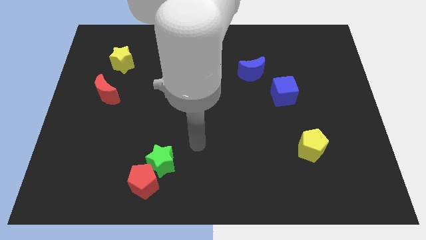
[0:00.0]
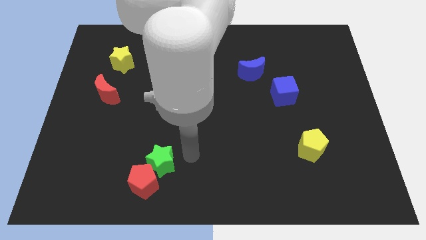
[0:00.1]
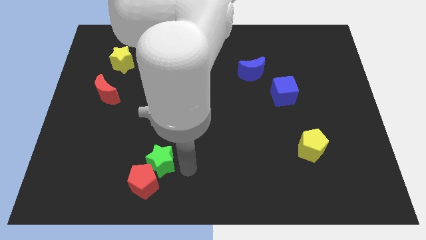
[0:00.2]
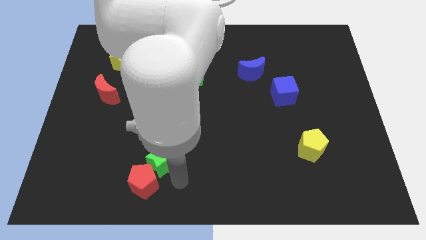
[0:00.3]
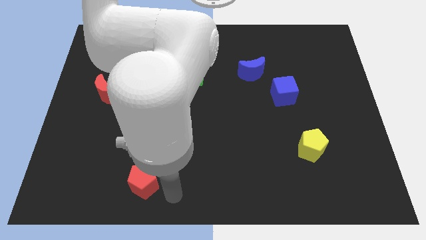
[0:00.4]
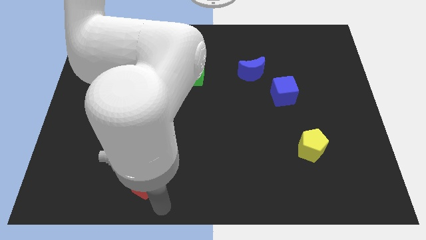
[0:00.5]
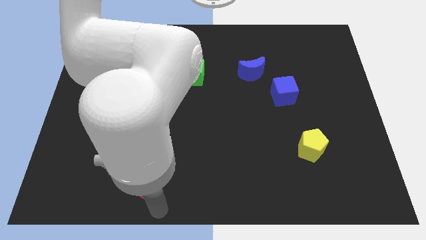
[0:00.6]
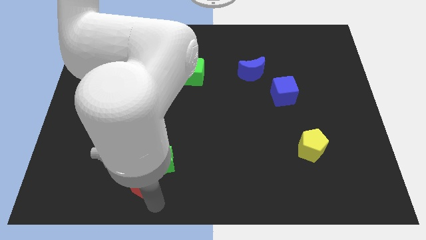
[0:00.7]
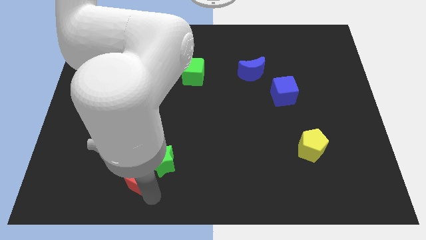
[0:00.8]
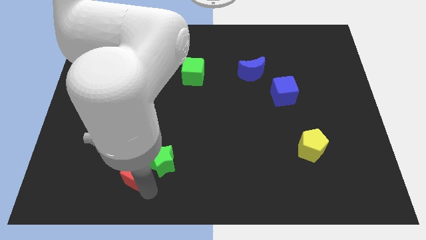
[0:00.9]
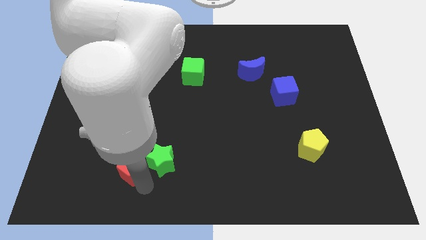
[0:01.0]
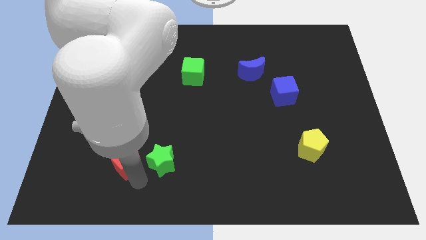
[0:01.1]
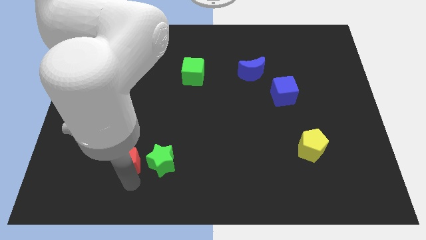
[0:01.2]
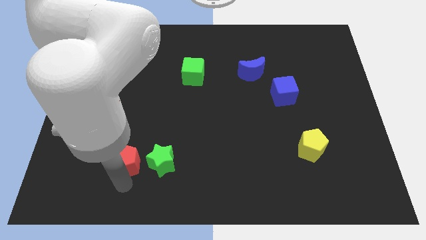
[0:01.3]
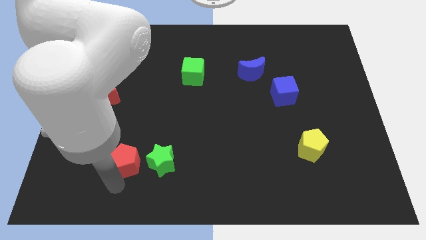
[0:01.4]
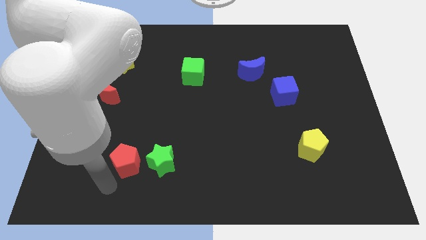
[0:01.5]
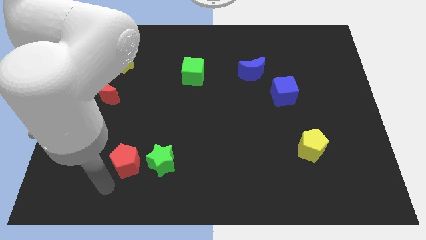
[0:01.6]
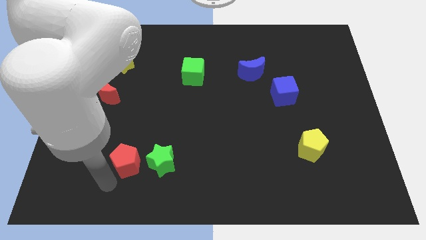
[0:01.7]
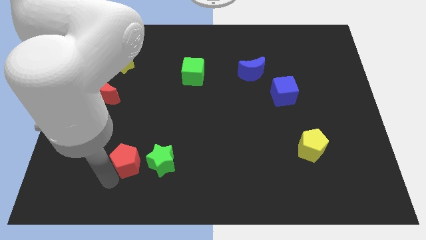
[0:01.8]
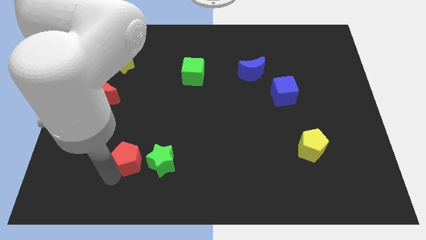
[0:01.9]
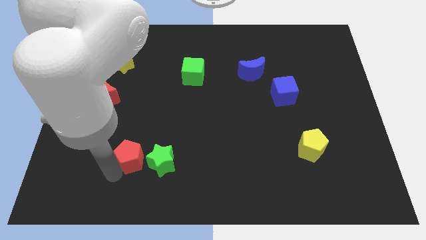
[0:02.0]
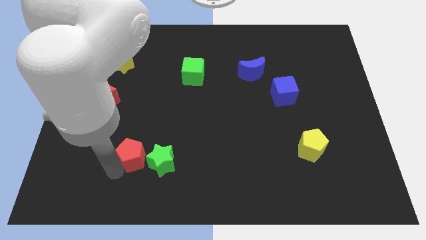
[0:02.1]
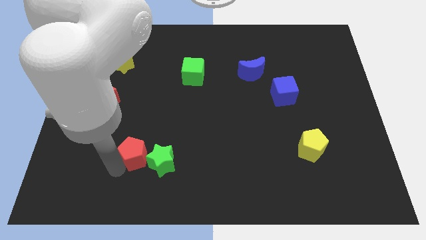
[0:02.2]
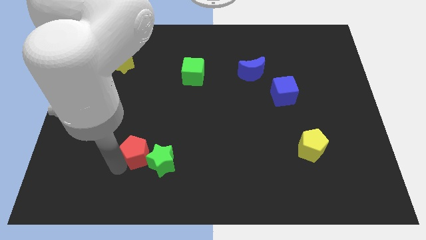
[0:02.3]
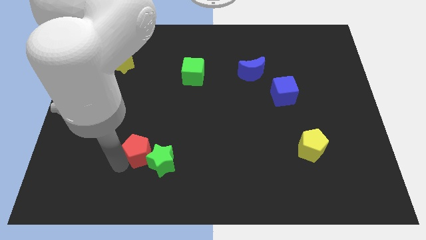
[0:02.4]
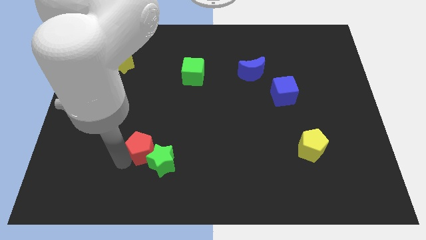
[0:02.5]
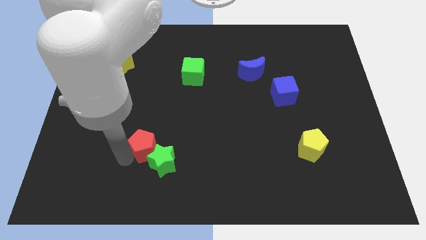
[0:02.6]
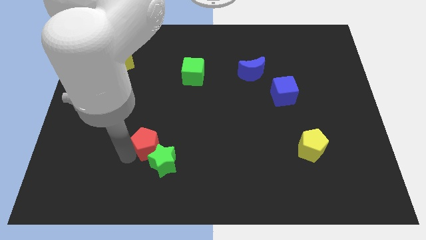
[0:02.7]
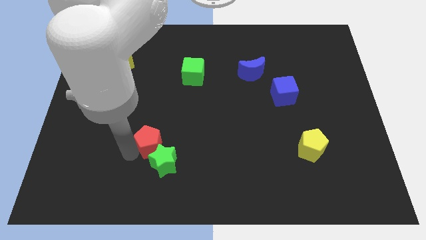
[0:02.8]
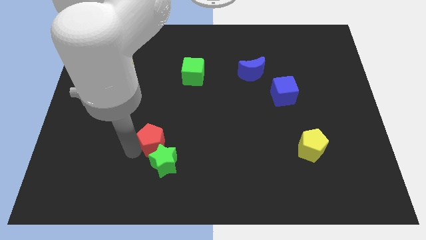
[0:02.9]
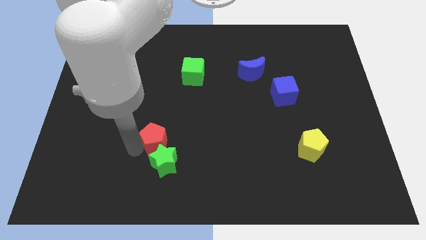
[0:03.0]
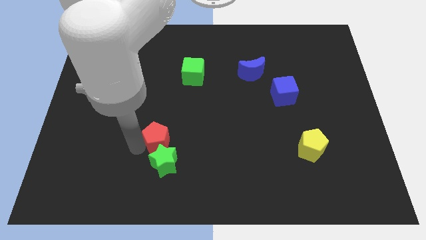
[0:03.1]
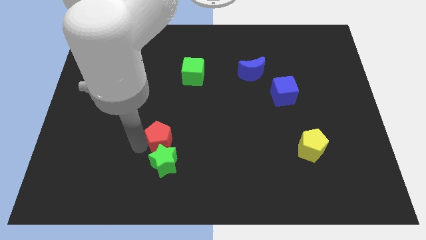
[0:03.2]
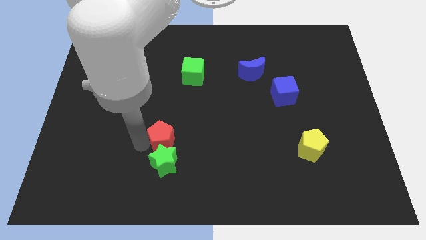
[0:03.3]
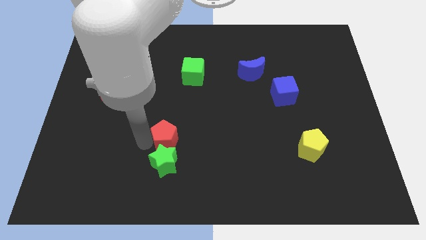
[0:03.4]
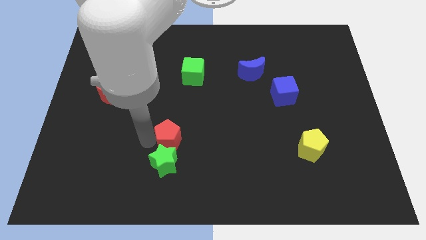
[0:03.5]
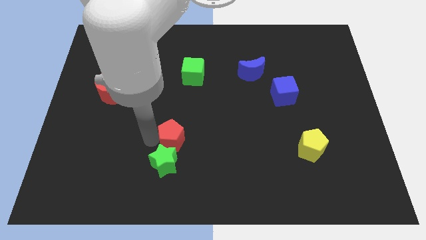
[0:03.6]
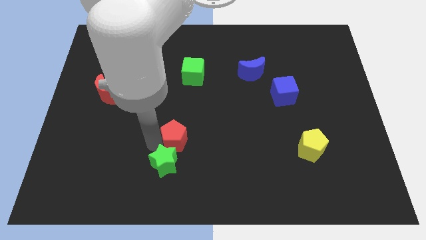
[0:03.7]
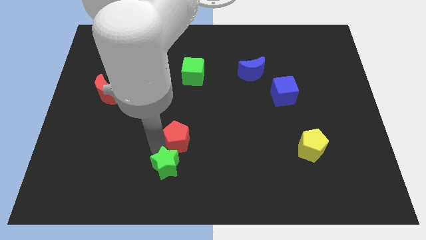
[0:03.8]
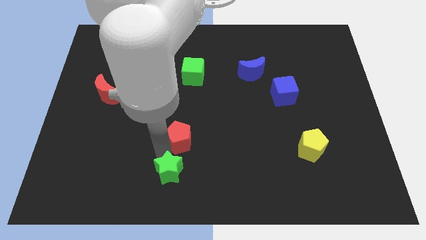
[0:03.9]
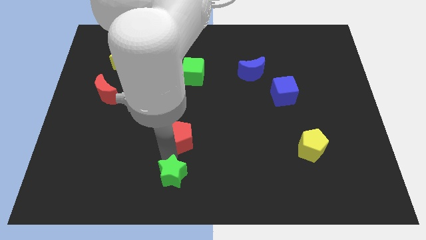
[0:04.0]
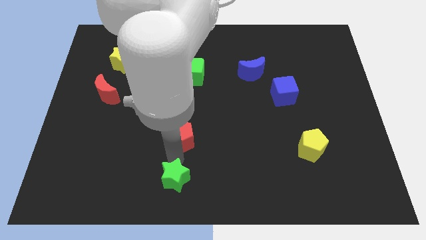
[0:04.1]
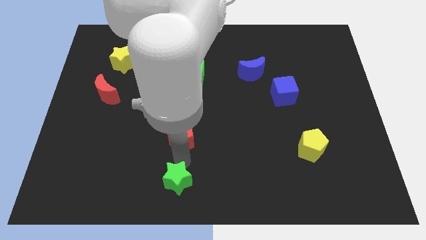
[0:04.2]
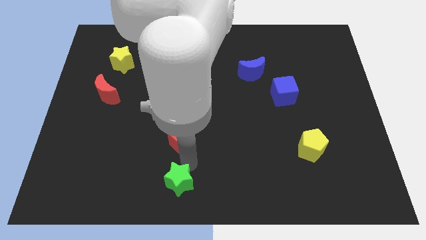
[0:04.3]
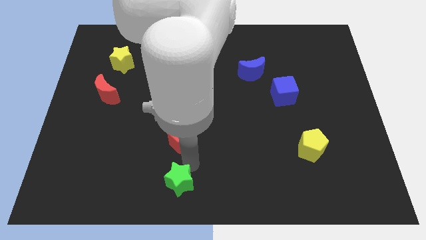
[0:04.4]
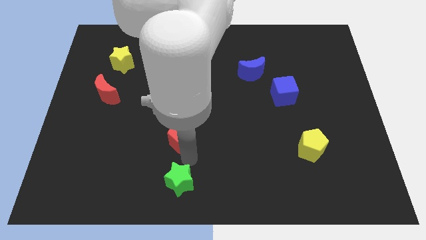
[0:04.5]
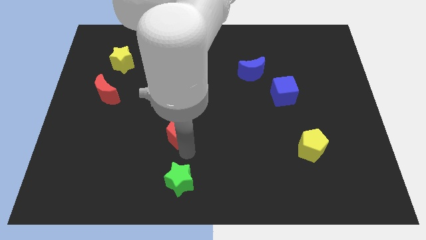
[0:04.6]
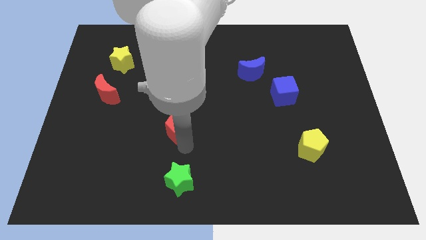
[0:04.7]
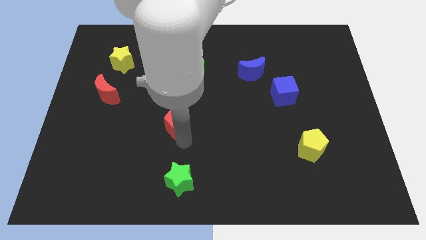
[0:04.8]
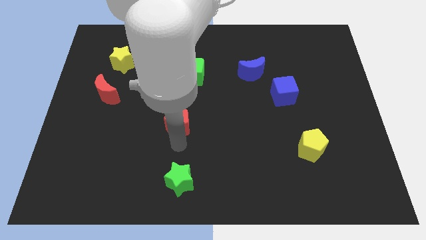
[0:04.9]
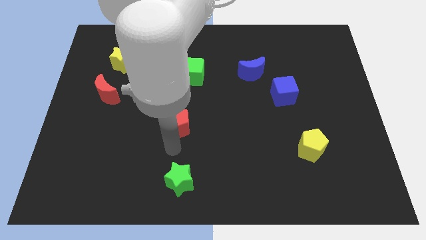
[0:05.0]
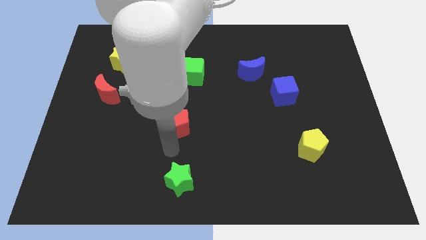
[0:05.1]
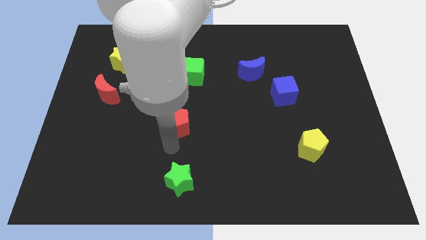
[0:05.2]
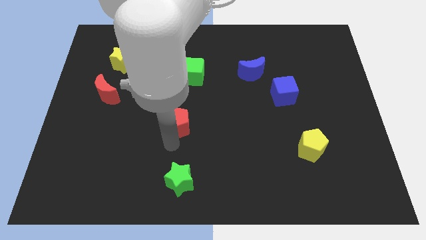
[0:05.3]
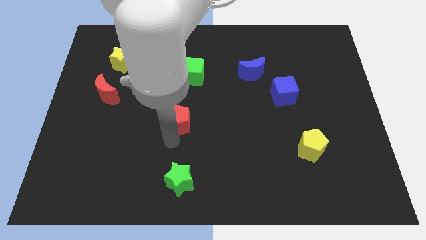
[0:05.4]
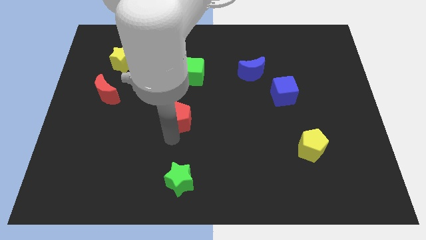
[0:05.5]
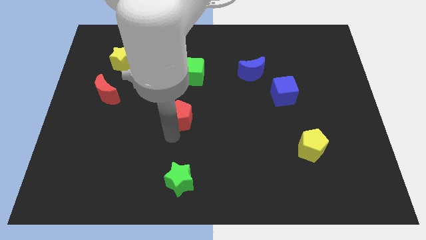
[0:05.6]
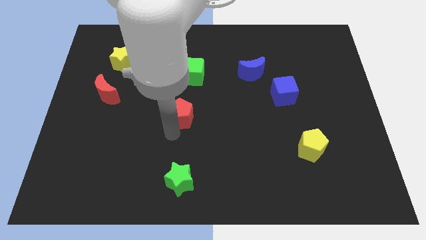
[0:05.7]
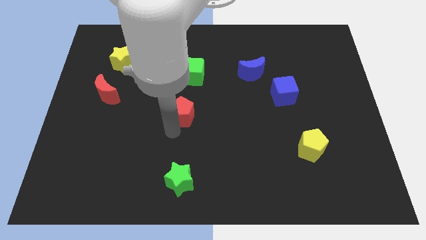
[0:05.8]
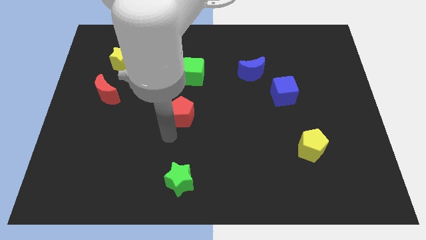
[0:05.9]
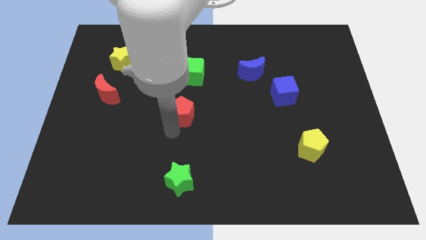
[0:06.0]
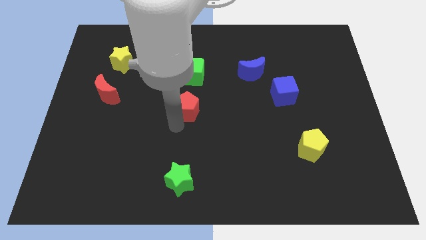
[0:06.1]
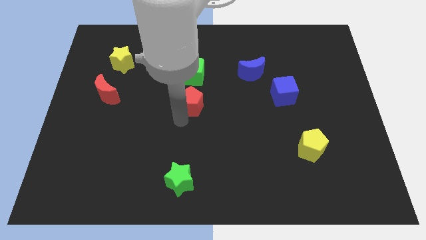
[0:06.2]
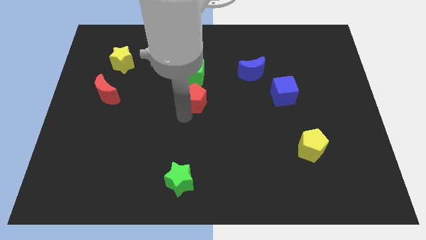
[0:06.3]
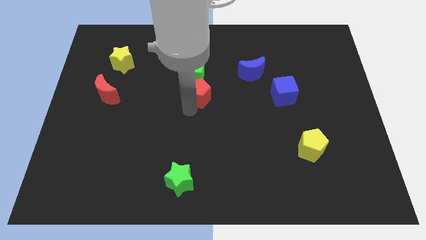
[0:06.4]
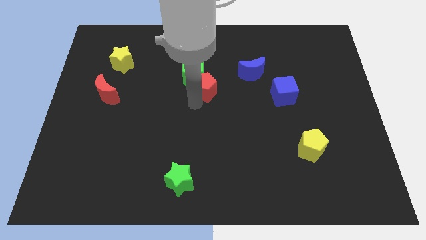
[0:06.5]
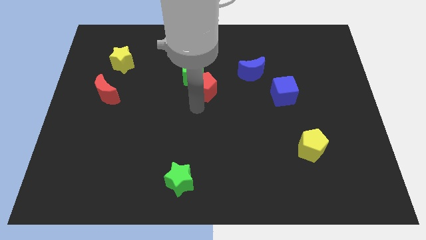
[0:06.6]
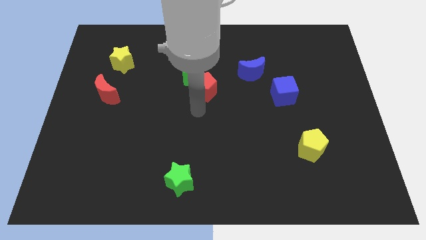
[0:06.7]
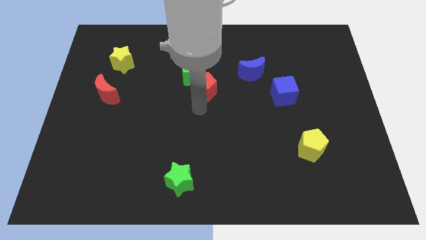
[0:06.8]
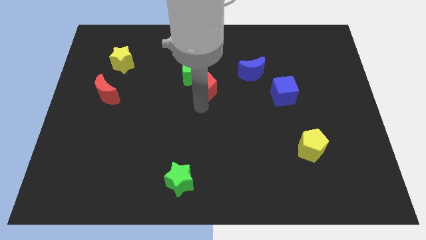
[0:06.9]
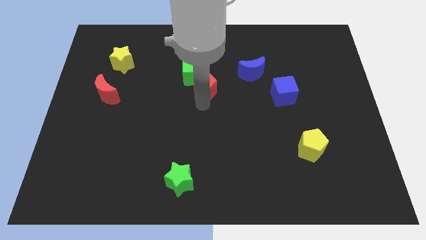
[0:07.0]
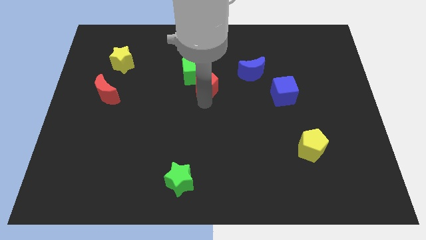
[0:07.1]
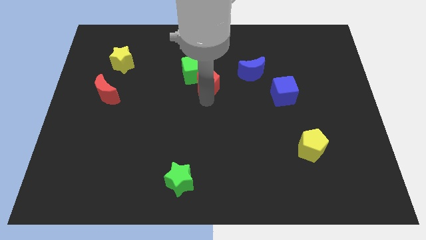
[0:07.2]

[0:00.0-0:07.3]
move the red pentagon left of the blue moon
